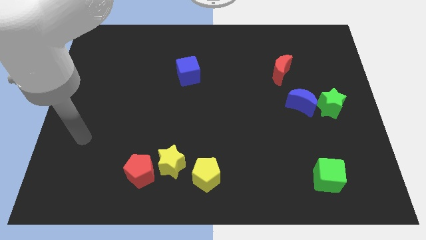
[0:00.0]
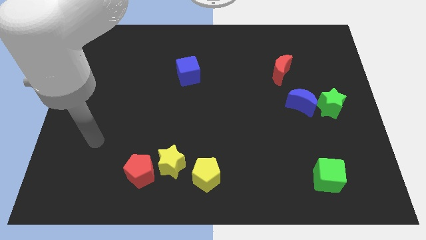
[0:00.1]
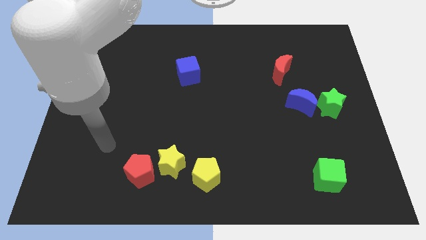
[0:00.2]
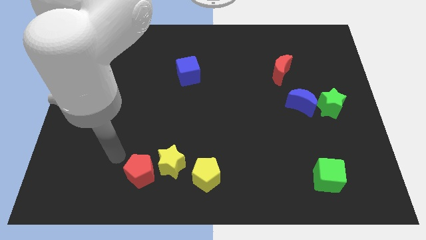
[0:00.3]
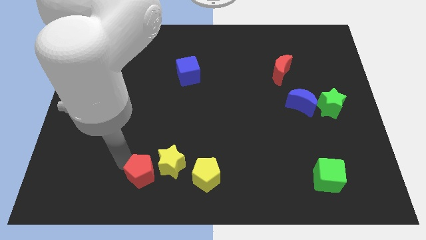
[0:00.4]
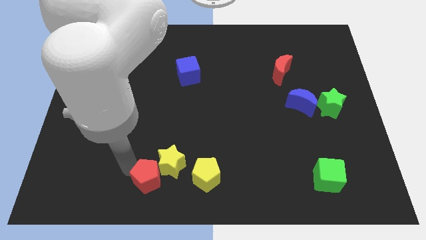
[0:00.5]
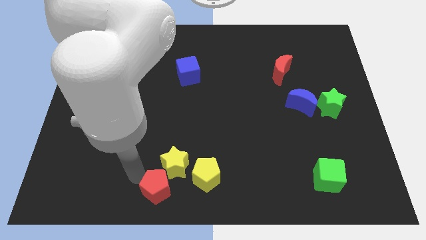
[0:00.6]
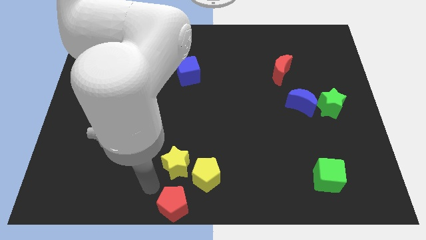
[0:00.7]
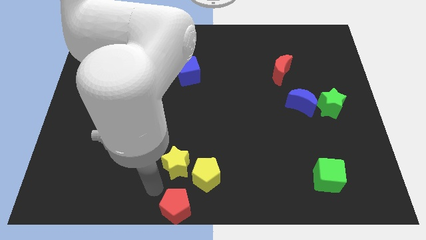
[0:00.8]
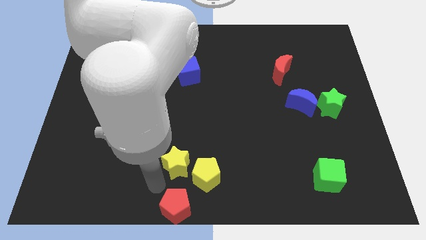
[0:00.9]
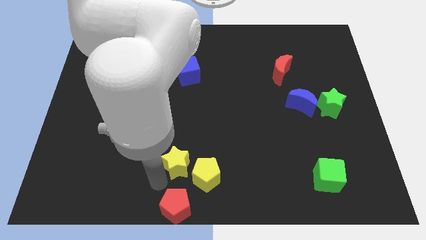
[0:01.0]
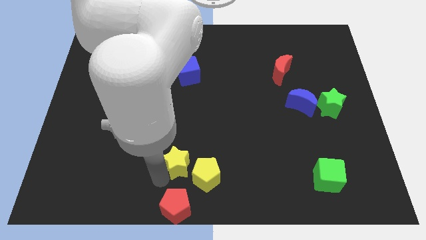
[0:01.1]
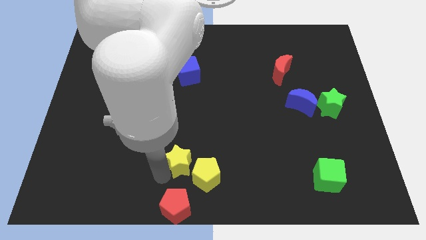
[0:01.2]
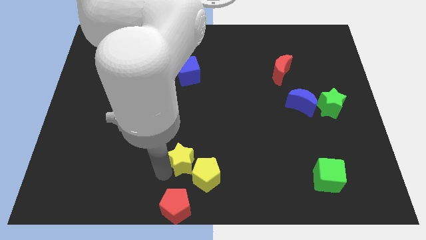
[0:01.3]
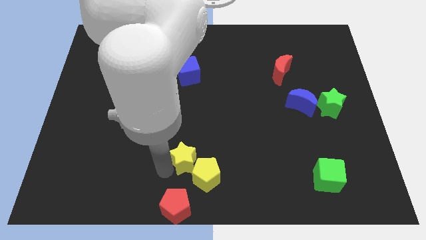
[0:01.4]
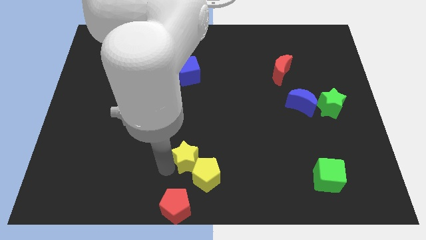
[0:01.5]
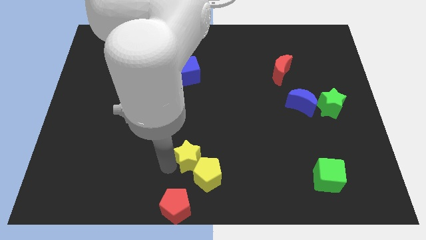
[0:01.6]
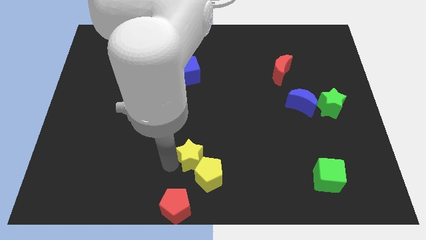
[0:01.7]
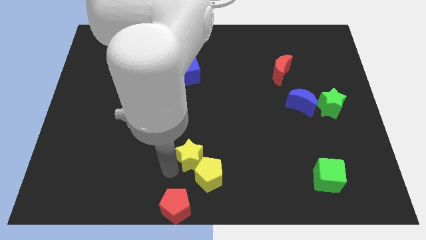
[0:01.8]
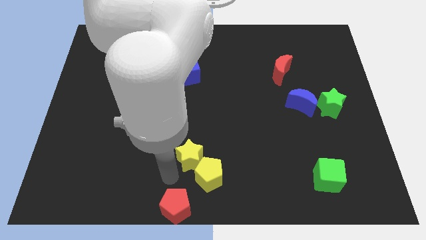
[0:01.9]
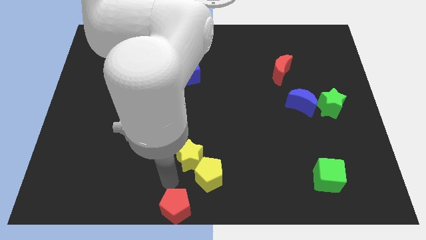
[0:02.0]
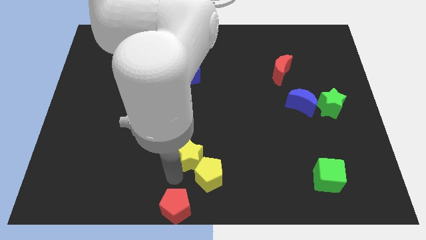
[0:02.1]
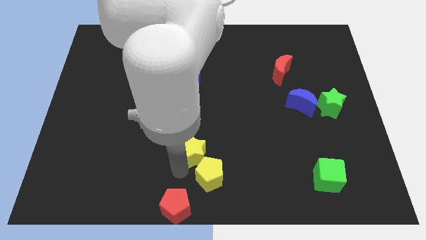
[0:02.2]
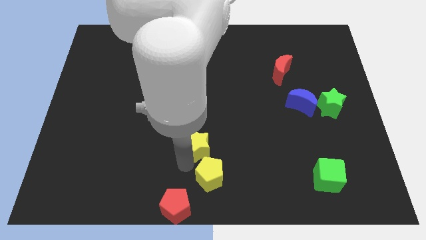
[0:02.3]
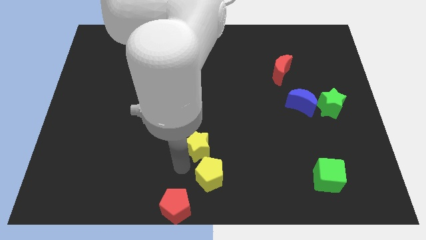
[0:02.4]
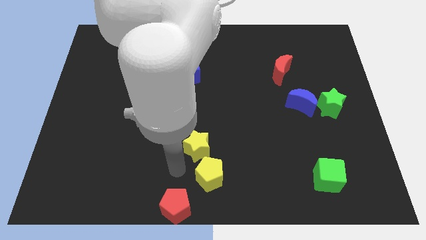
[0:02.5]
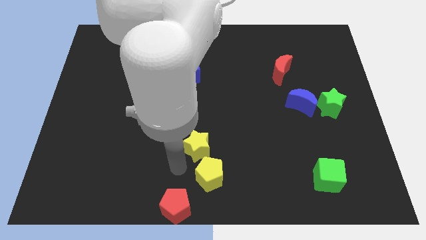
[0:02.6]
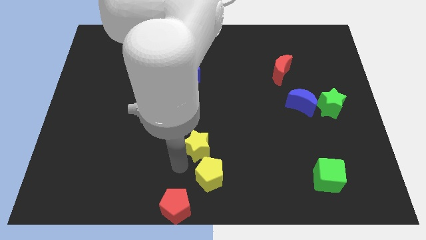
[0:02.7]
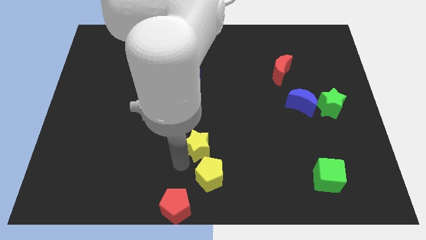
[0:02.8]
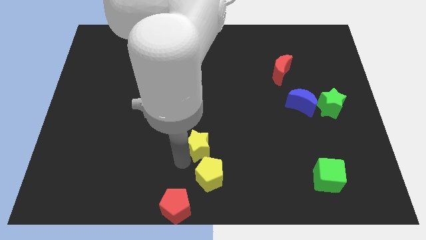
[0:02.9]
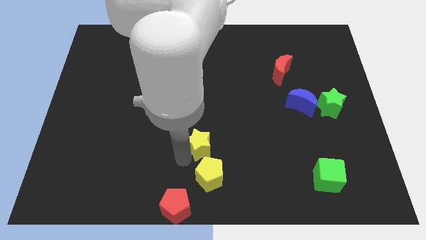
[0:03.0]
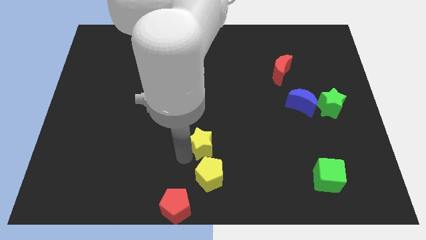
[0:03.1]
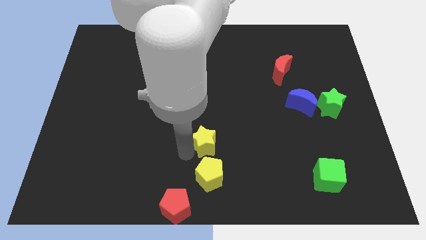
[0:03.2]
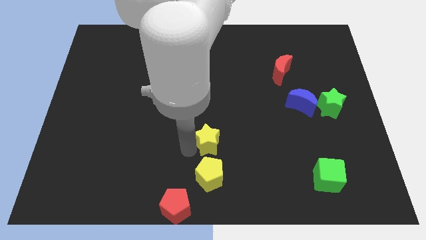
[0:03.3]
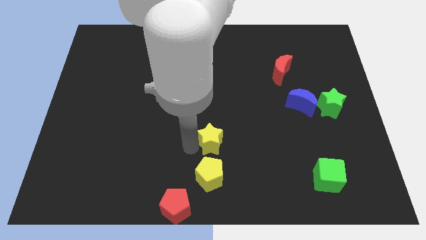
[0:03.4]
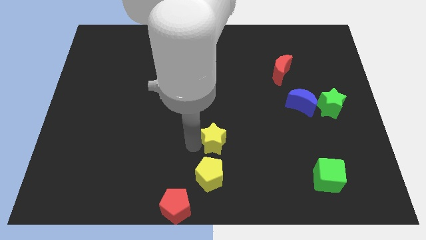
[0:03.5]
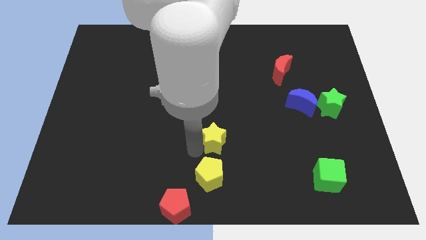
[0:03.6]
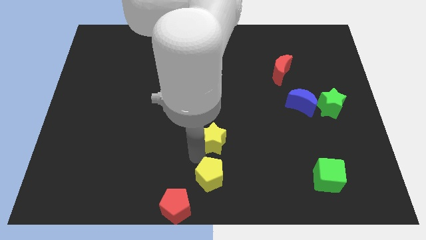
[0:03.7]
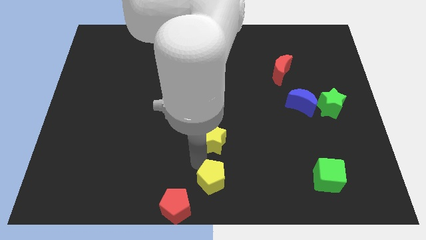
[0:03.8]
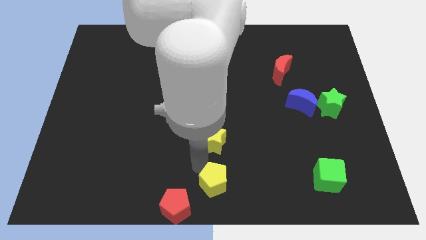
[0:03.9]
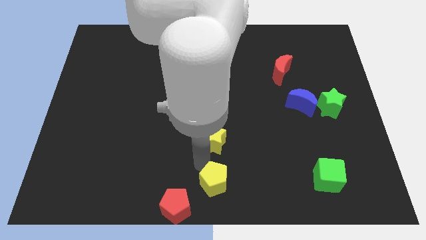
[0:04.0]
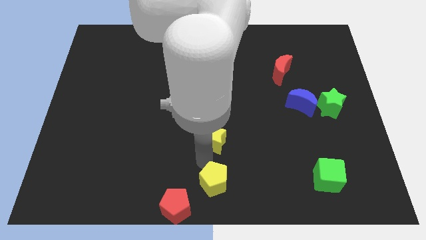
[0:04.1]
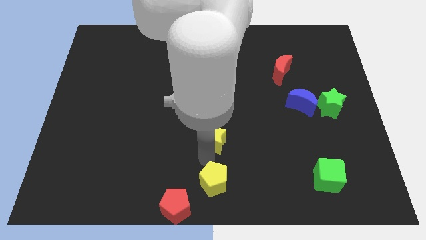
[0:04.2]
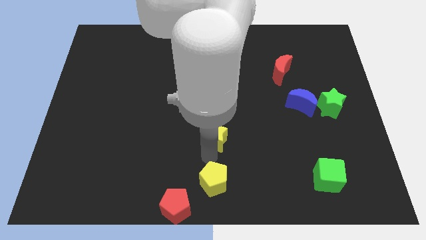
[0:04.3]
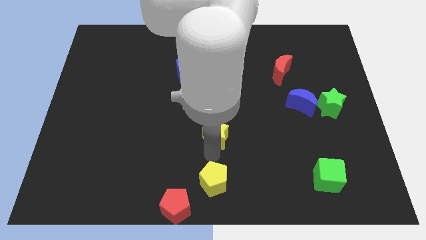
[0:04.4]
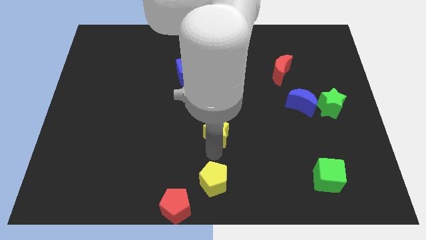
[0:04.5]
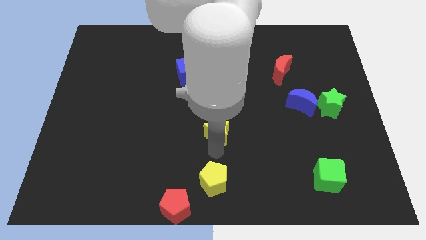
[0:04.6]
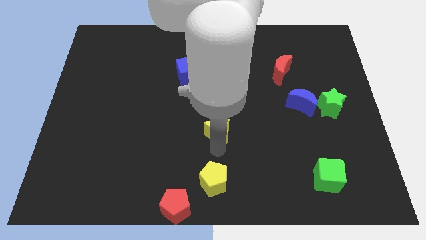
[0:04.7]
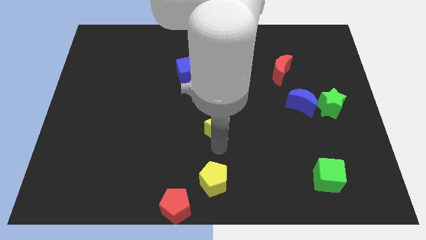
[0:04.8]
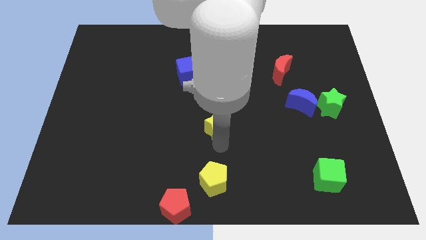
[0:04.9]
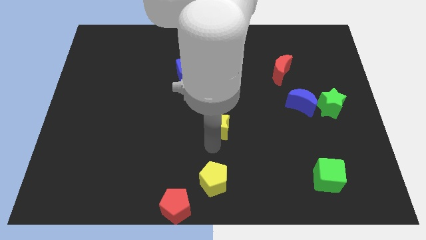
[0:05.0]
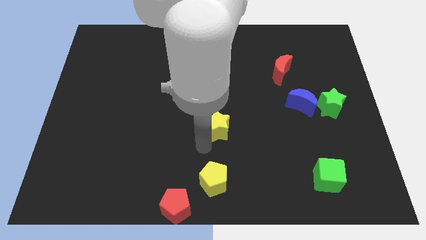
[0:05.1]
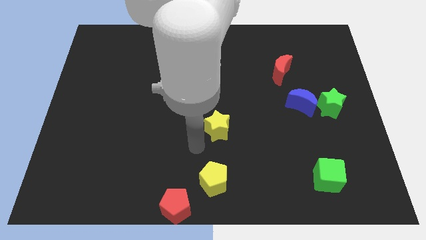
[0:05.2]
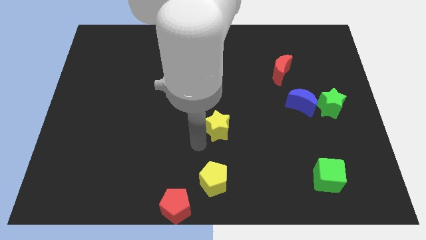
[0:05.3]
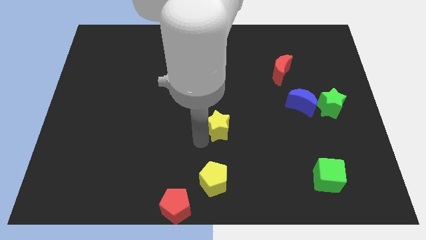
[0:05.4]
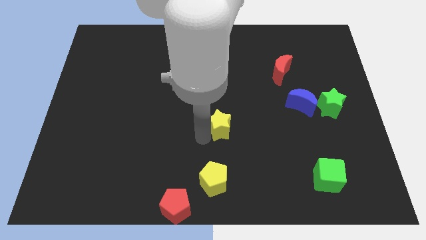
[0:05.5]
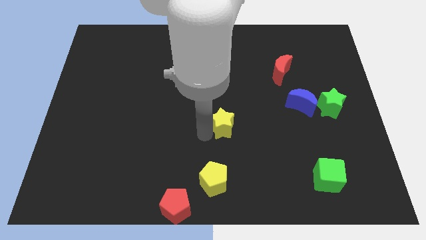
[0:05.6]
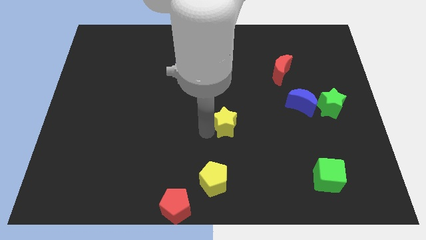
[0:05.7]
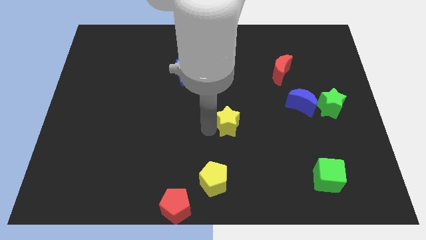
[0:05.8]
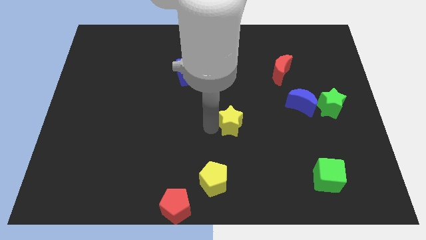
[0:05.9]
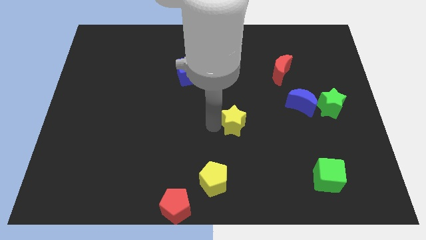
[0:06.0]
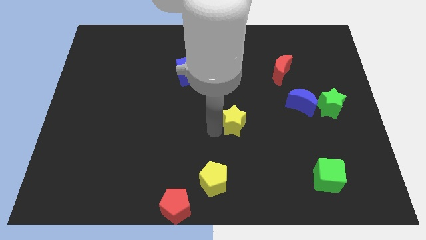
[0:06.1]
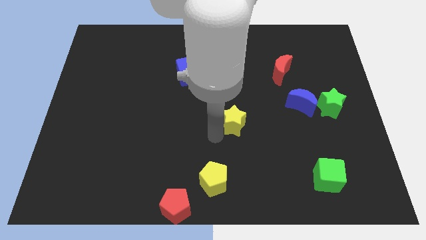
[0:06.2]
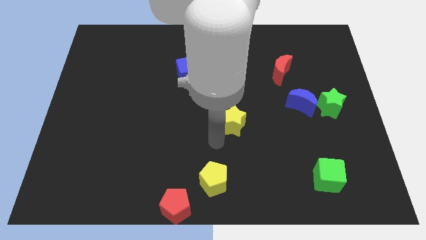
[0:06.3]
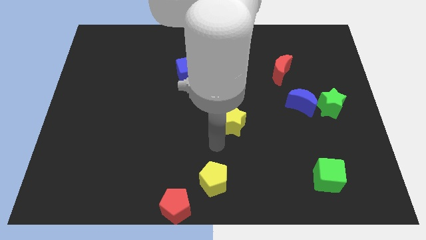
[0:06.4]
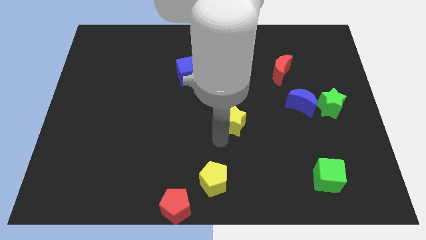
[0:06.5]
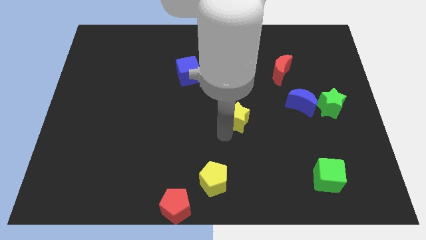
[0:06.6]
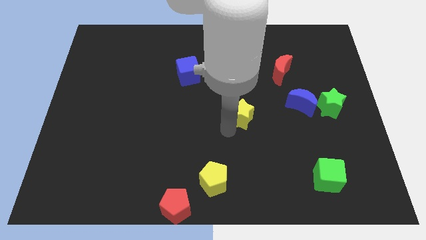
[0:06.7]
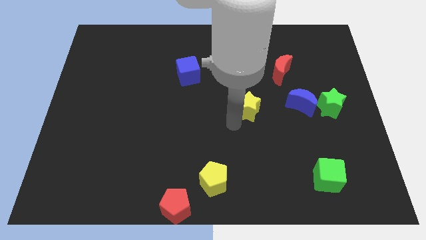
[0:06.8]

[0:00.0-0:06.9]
push the yellow star upwards and right

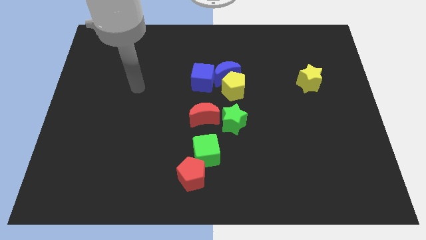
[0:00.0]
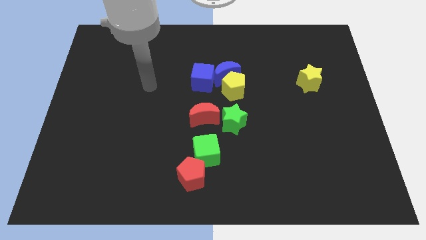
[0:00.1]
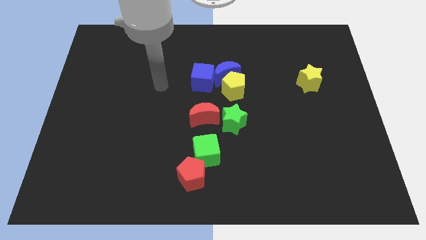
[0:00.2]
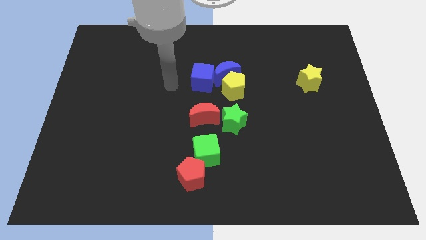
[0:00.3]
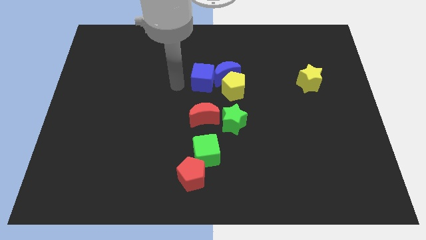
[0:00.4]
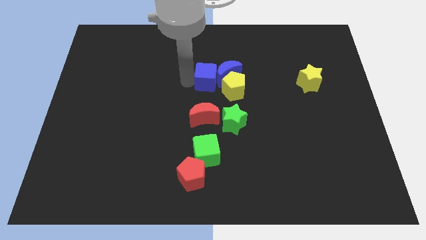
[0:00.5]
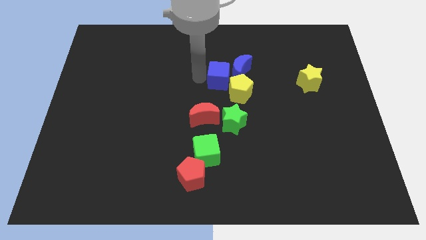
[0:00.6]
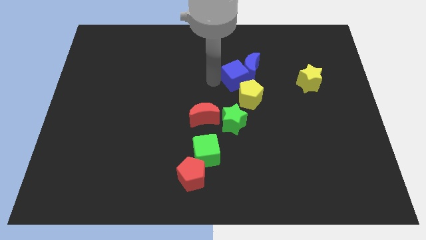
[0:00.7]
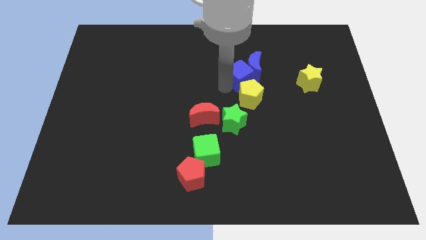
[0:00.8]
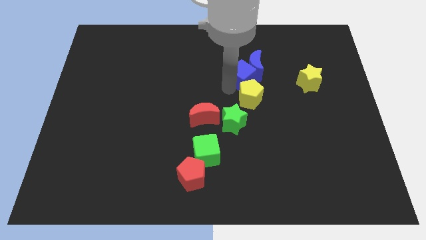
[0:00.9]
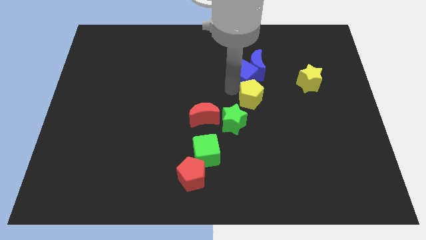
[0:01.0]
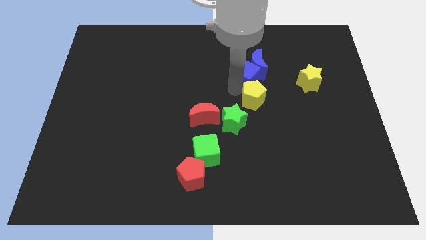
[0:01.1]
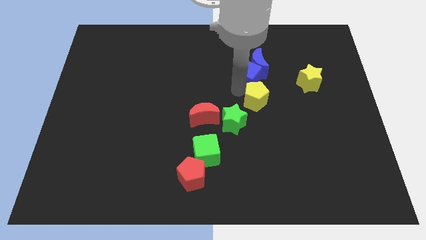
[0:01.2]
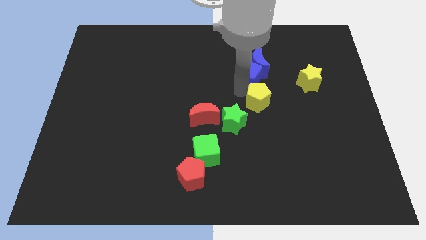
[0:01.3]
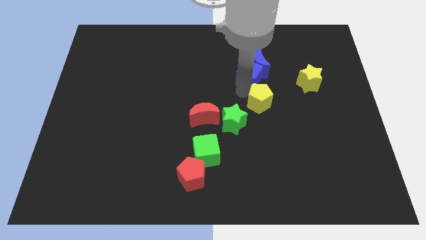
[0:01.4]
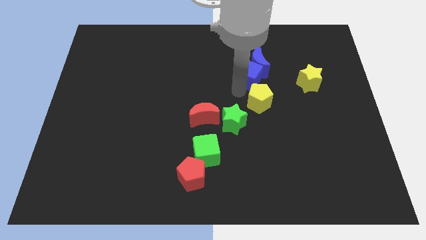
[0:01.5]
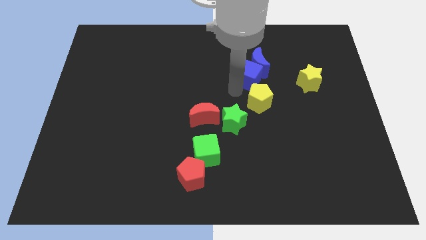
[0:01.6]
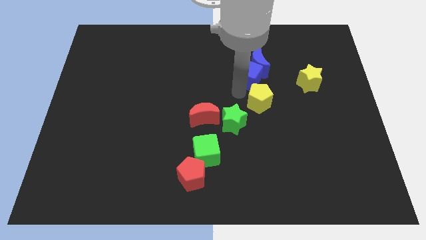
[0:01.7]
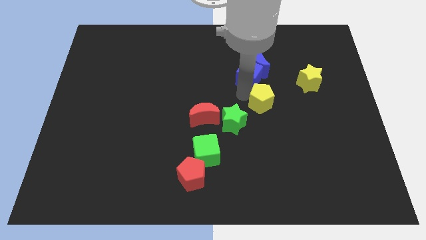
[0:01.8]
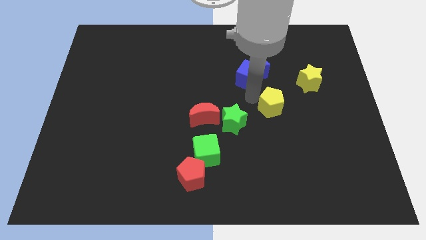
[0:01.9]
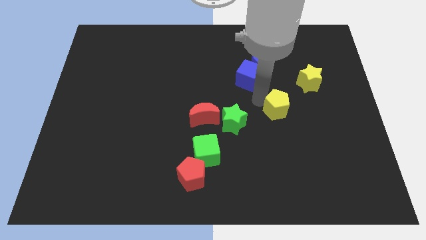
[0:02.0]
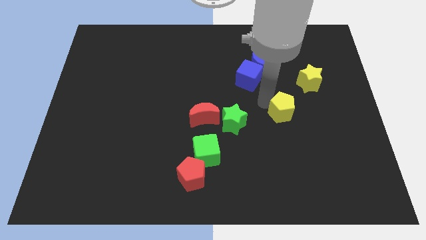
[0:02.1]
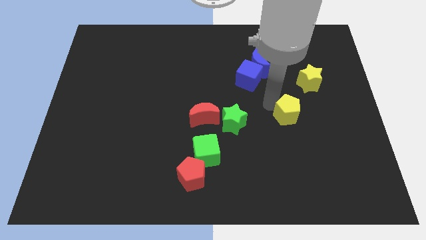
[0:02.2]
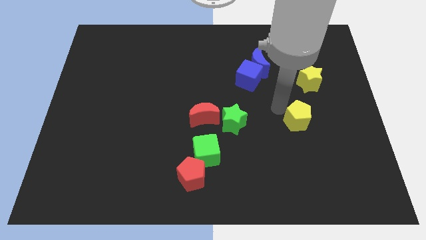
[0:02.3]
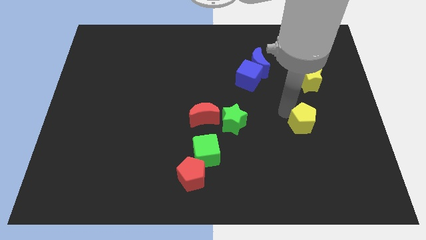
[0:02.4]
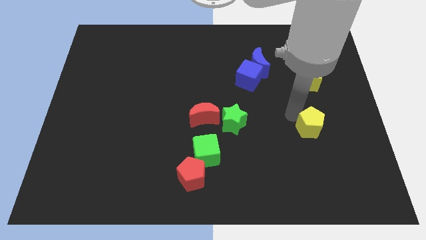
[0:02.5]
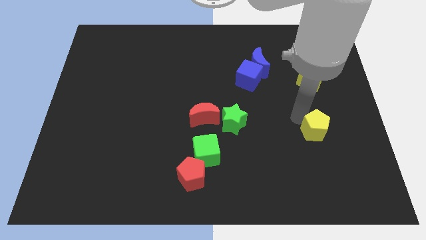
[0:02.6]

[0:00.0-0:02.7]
push the yellow pentagon downwards and right diagonally
